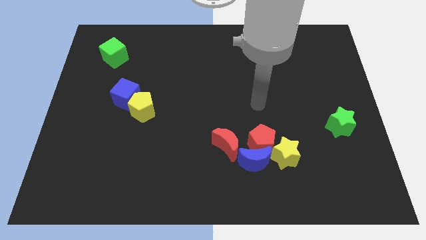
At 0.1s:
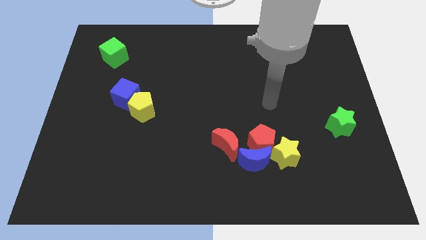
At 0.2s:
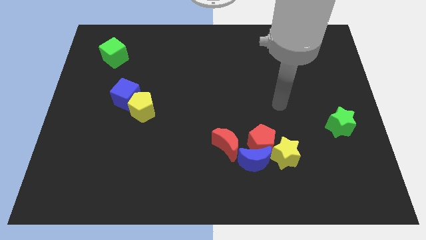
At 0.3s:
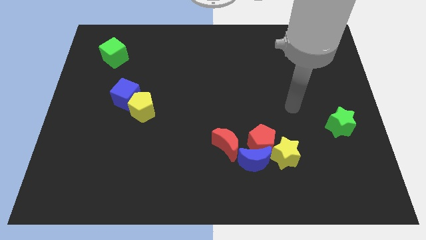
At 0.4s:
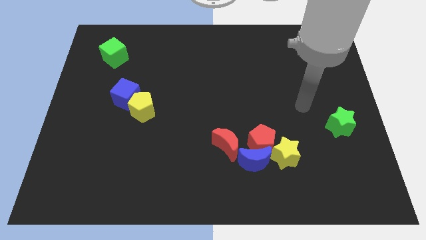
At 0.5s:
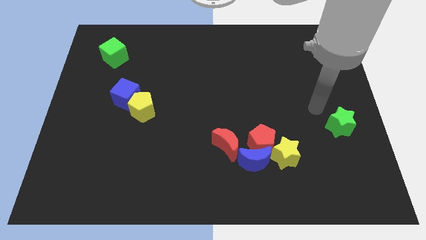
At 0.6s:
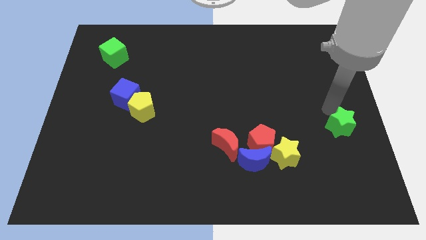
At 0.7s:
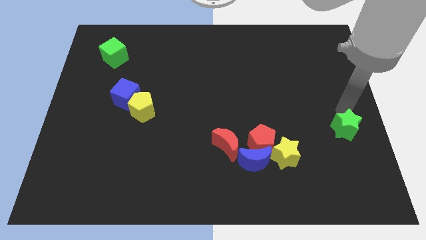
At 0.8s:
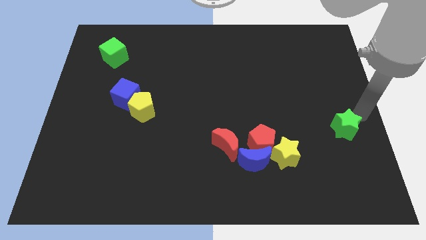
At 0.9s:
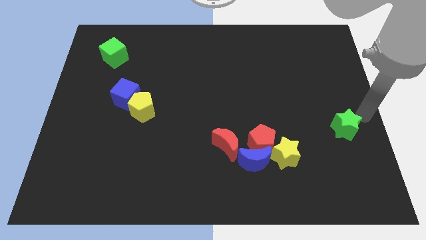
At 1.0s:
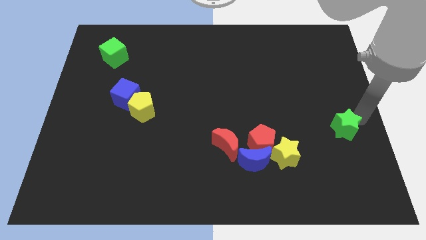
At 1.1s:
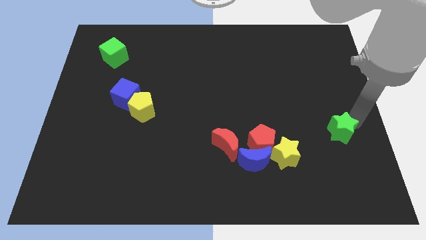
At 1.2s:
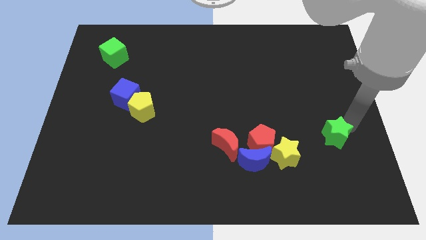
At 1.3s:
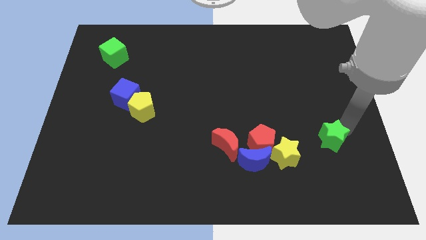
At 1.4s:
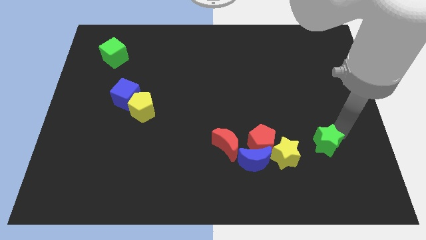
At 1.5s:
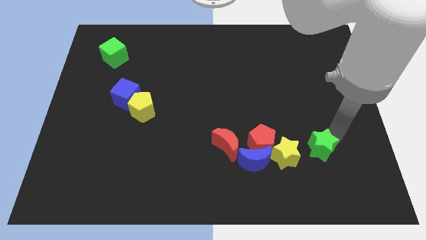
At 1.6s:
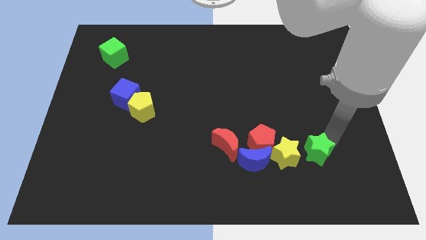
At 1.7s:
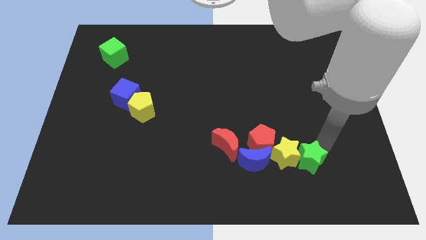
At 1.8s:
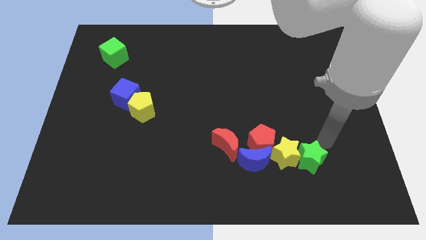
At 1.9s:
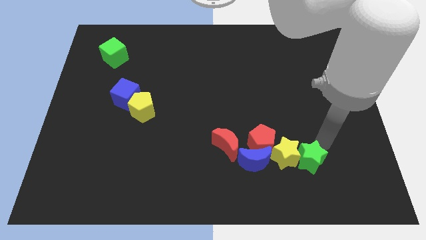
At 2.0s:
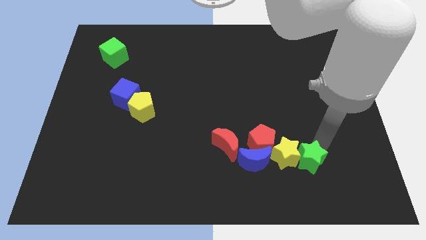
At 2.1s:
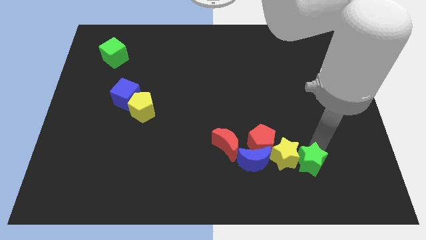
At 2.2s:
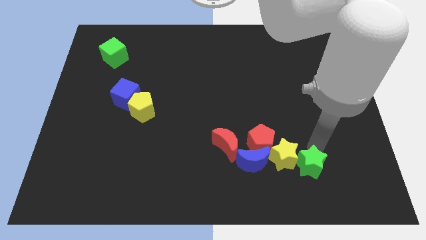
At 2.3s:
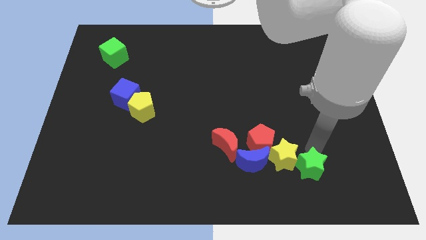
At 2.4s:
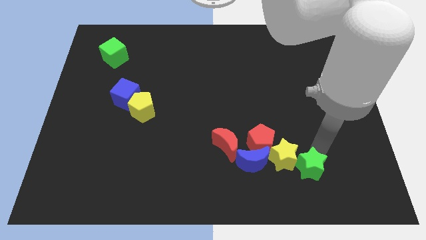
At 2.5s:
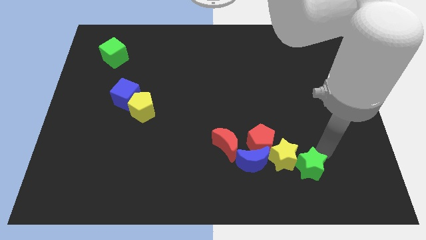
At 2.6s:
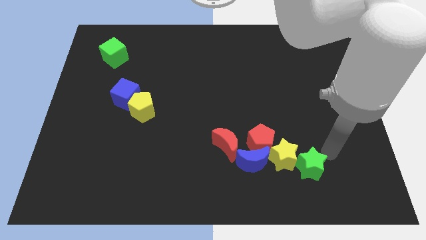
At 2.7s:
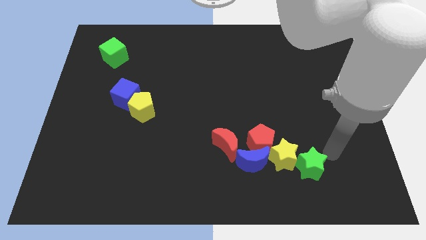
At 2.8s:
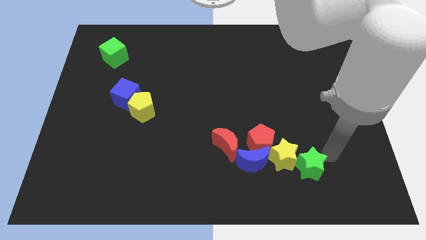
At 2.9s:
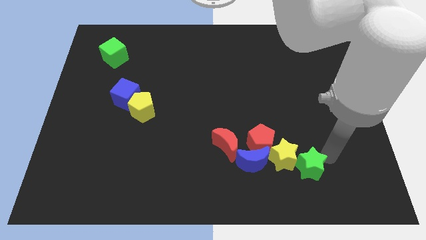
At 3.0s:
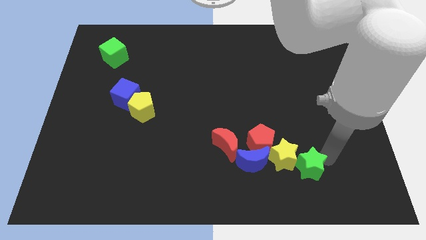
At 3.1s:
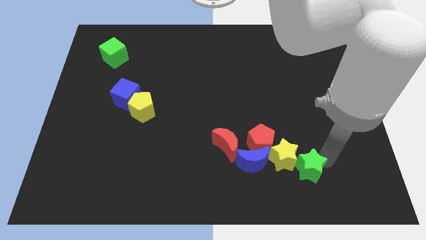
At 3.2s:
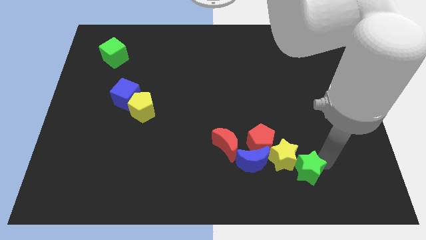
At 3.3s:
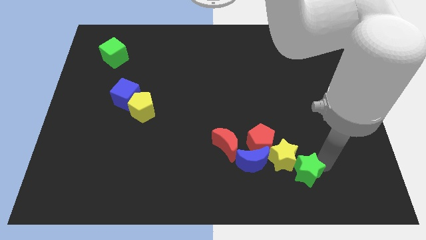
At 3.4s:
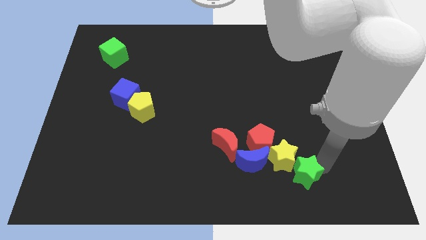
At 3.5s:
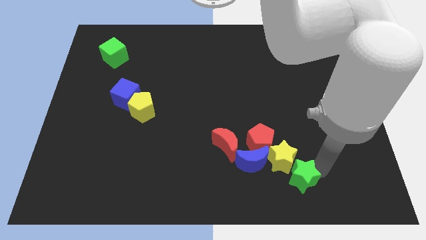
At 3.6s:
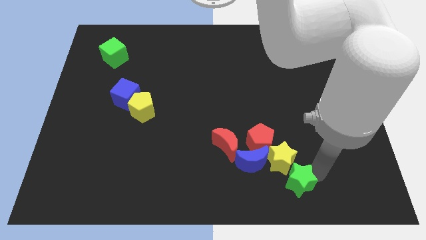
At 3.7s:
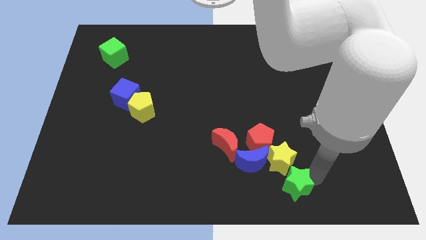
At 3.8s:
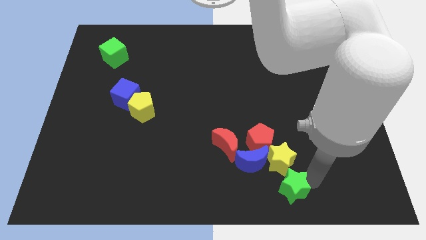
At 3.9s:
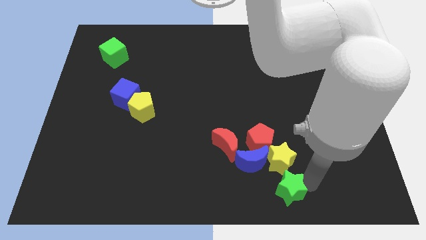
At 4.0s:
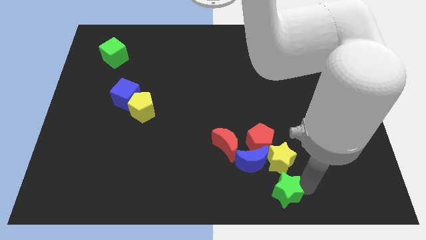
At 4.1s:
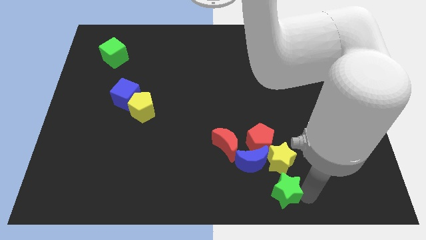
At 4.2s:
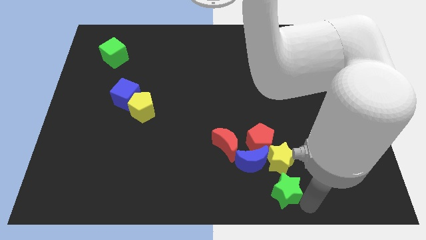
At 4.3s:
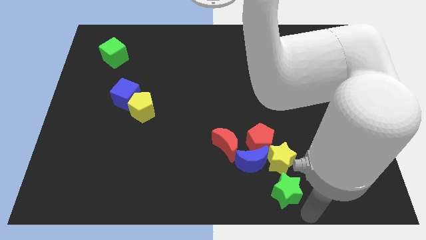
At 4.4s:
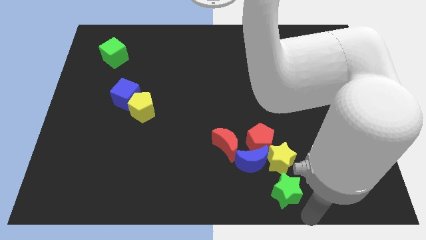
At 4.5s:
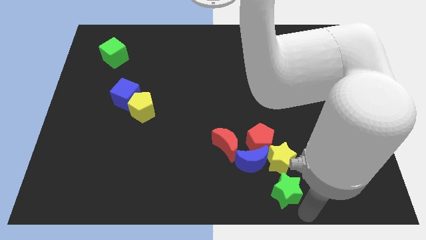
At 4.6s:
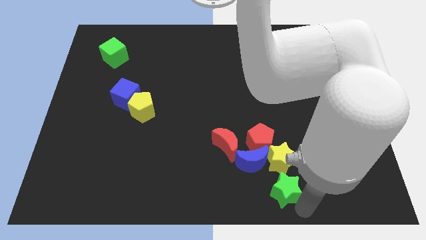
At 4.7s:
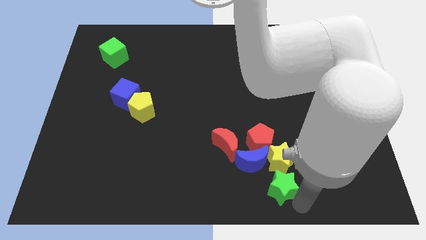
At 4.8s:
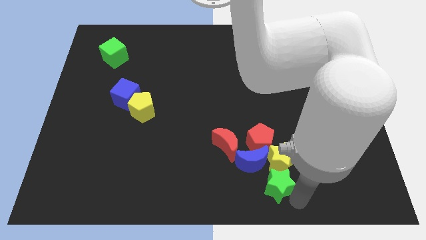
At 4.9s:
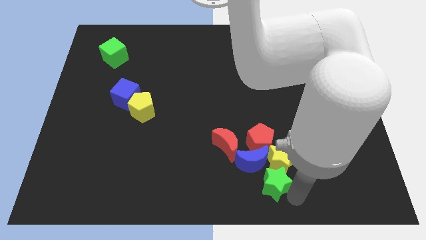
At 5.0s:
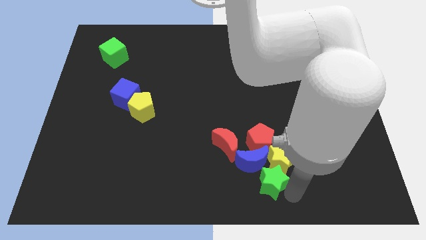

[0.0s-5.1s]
slide the green star close to the blue moon

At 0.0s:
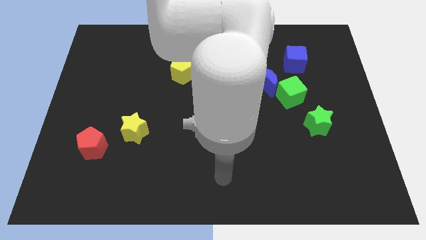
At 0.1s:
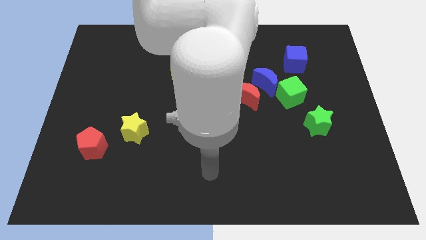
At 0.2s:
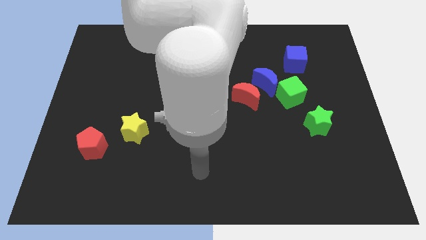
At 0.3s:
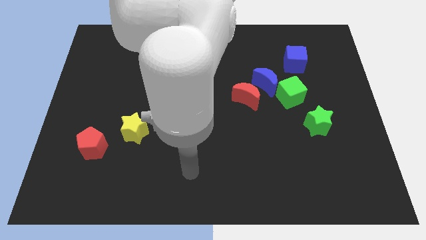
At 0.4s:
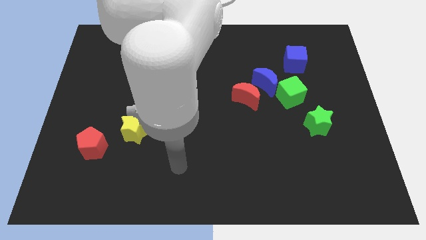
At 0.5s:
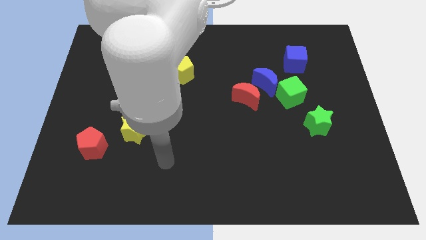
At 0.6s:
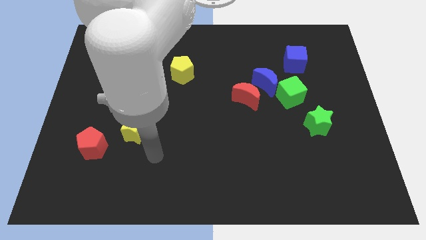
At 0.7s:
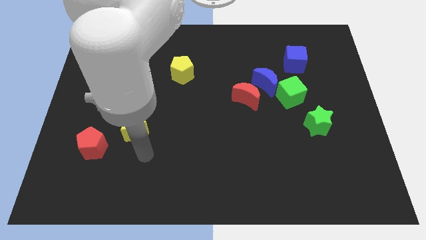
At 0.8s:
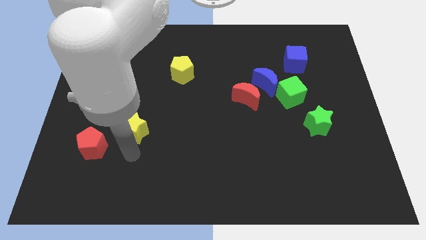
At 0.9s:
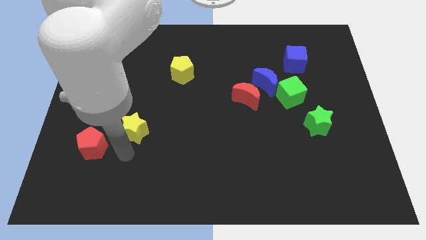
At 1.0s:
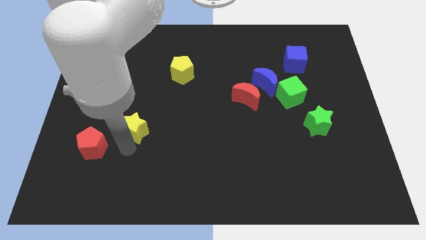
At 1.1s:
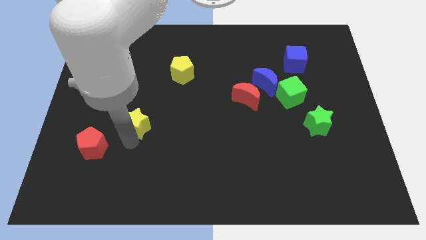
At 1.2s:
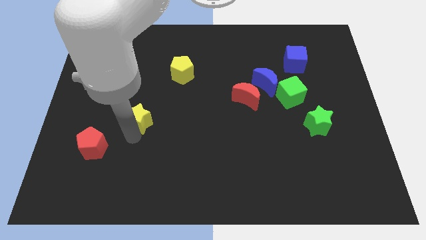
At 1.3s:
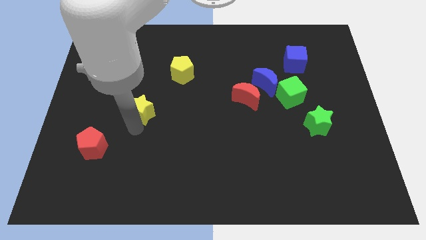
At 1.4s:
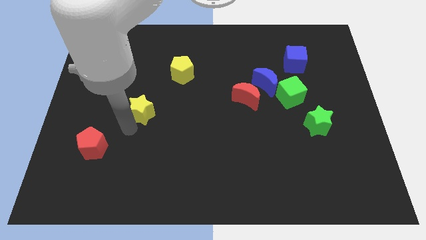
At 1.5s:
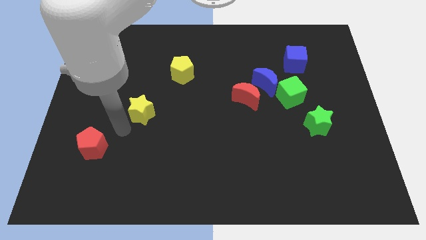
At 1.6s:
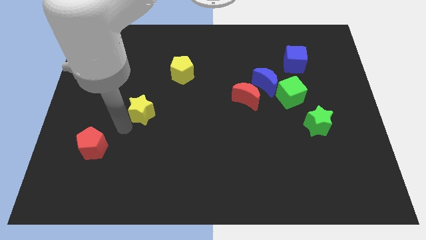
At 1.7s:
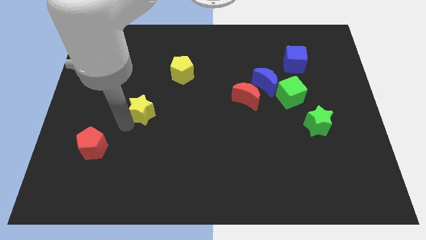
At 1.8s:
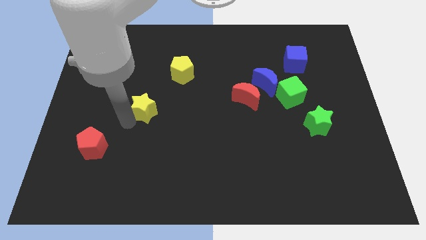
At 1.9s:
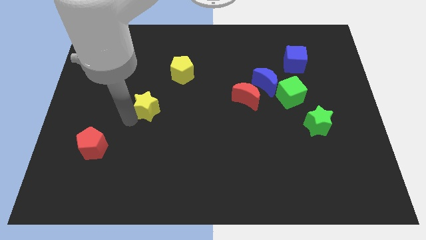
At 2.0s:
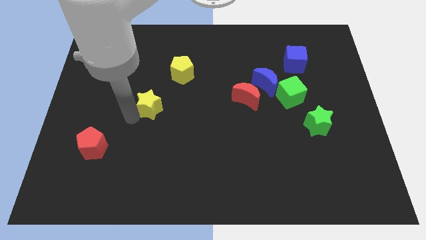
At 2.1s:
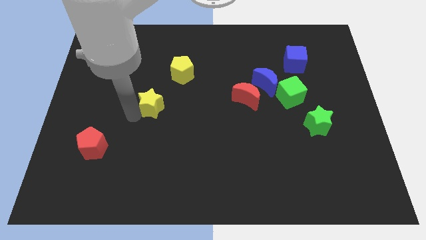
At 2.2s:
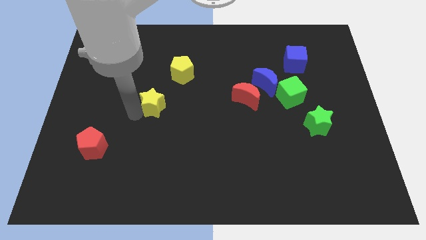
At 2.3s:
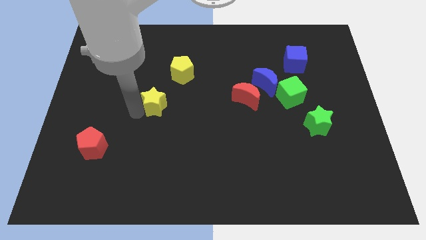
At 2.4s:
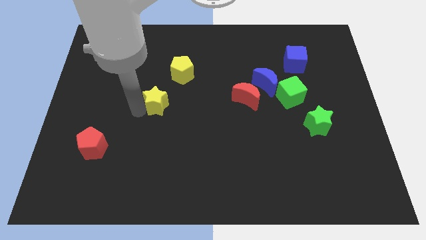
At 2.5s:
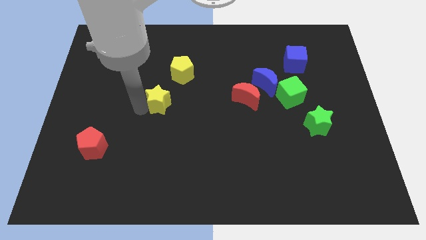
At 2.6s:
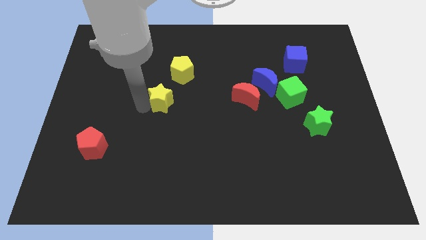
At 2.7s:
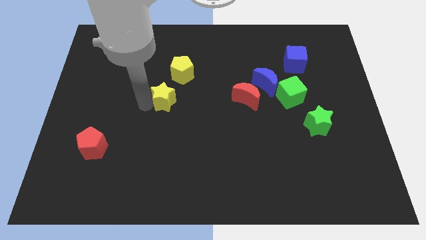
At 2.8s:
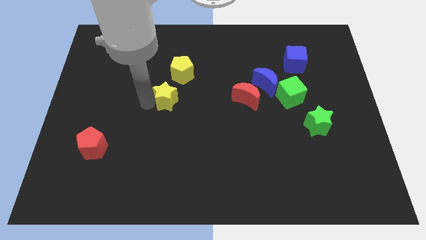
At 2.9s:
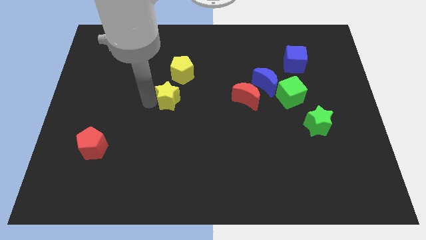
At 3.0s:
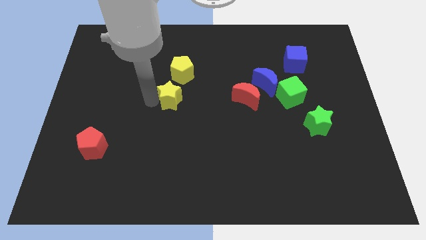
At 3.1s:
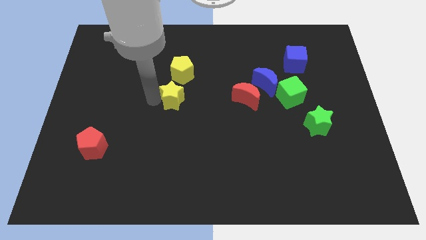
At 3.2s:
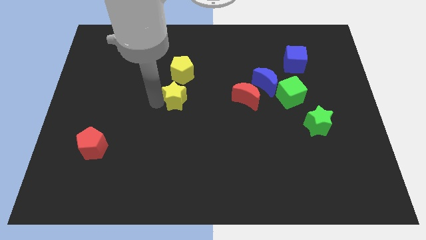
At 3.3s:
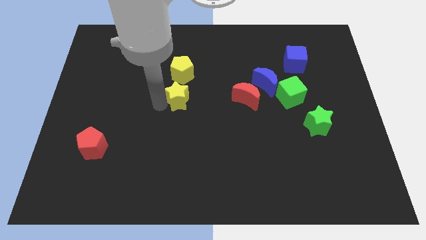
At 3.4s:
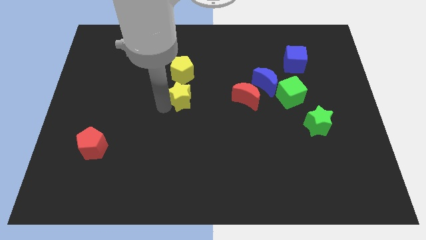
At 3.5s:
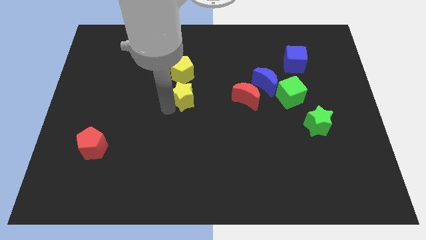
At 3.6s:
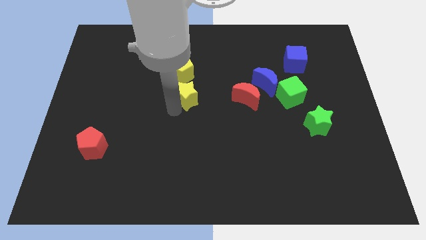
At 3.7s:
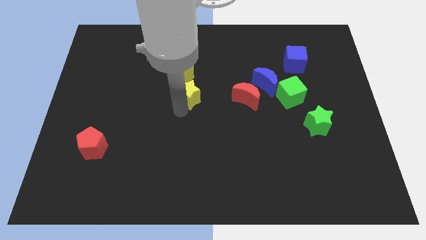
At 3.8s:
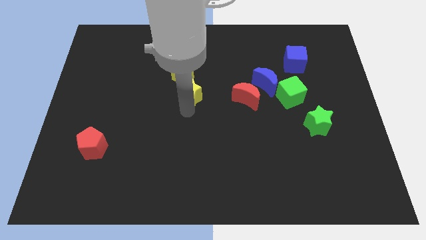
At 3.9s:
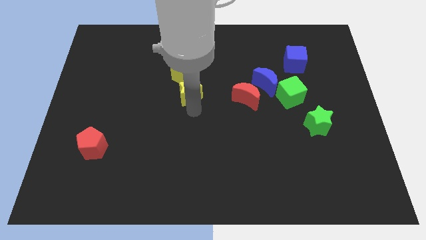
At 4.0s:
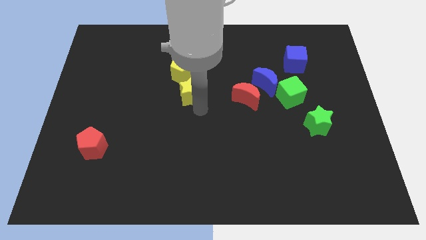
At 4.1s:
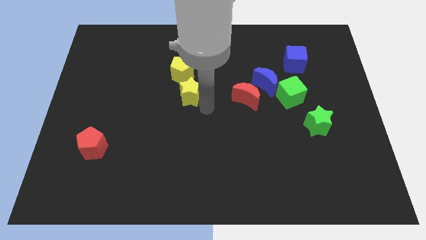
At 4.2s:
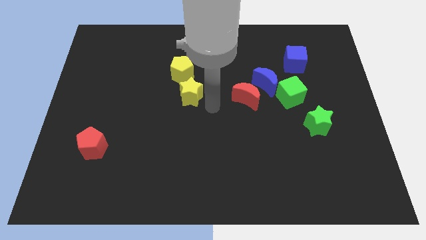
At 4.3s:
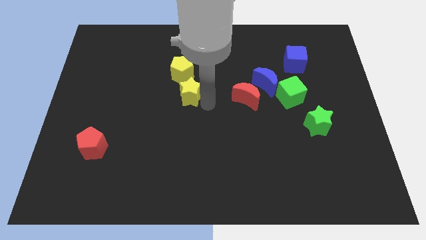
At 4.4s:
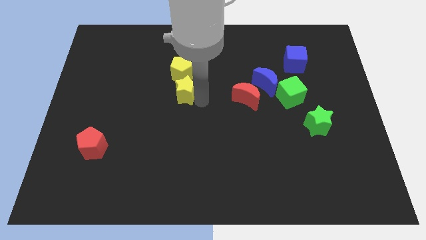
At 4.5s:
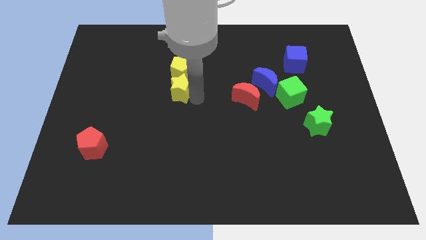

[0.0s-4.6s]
put the yellow star next to the yellow pentagon
